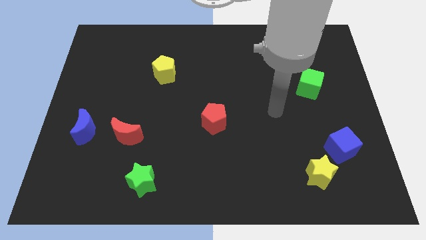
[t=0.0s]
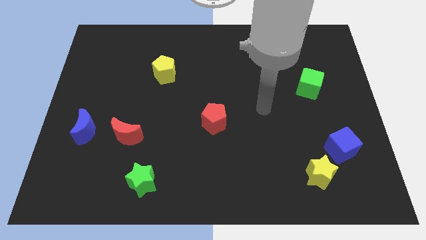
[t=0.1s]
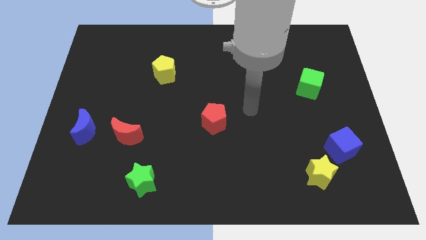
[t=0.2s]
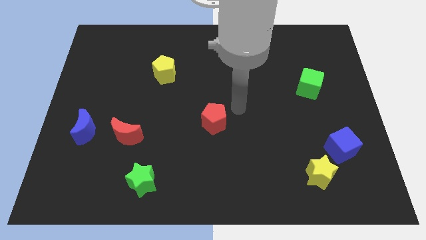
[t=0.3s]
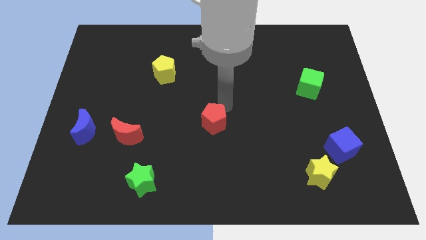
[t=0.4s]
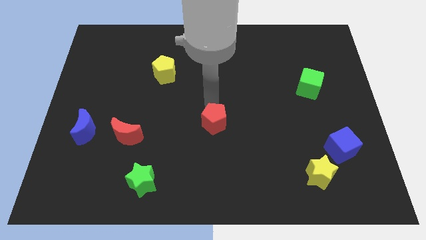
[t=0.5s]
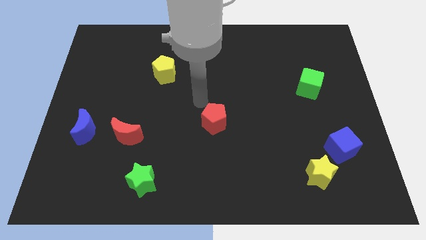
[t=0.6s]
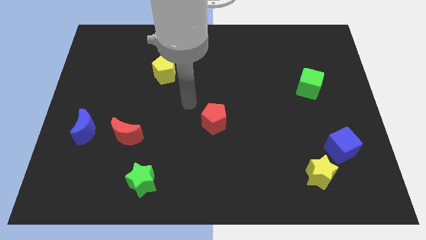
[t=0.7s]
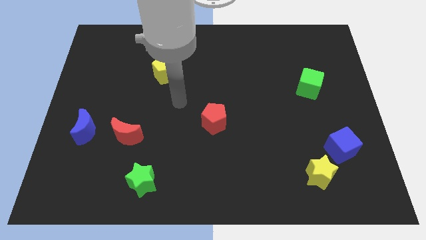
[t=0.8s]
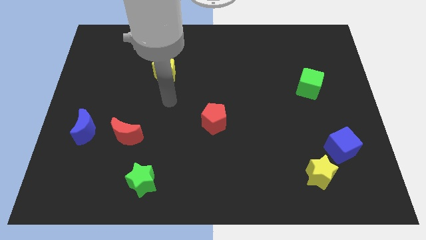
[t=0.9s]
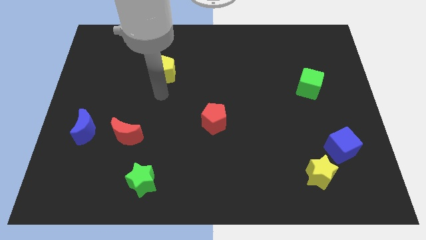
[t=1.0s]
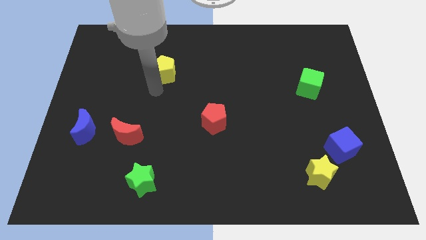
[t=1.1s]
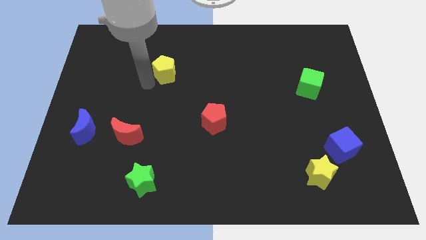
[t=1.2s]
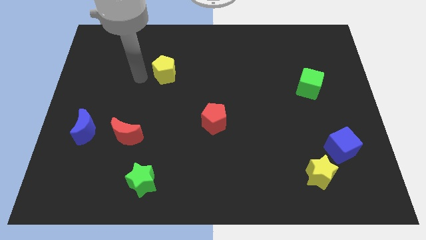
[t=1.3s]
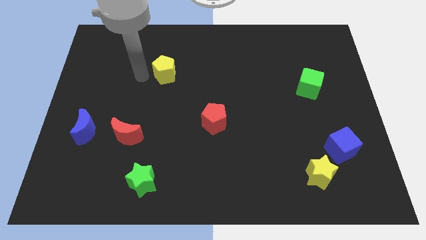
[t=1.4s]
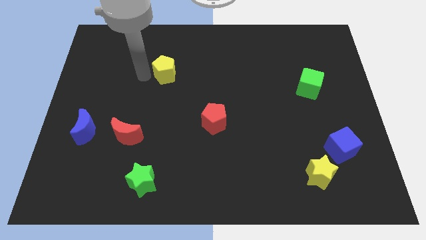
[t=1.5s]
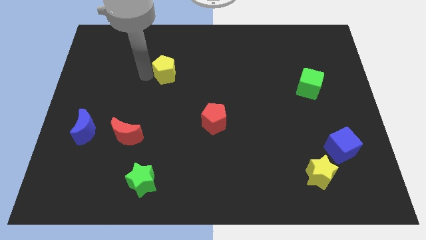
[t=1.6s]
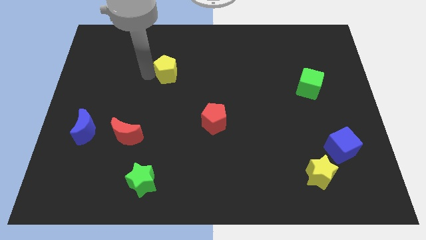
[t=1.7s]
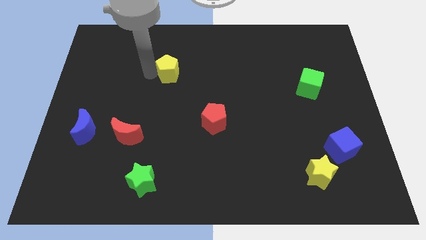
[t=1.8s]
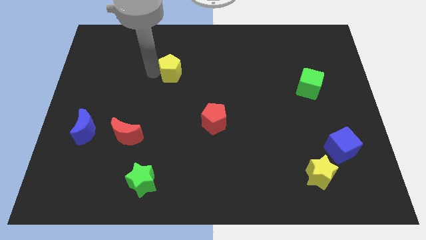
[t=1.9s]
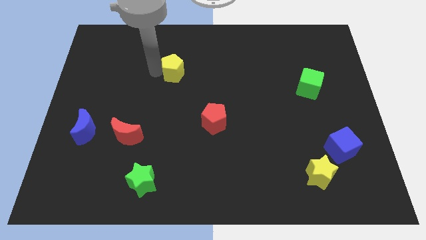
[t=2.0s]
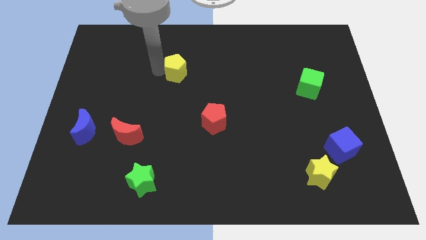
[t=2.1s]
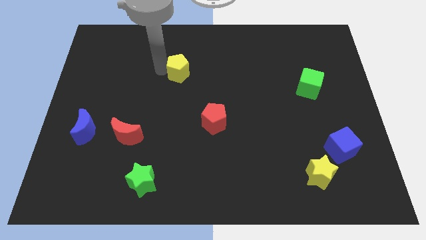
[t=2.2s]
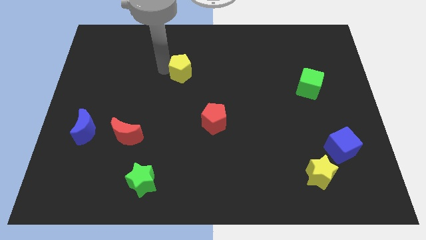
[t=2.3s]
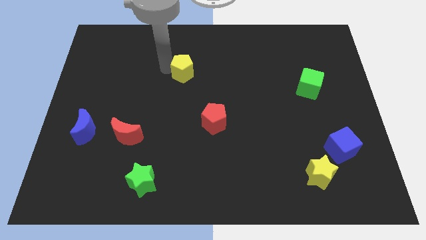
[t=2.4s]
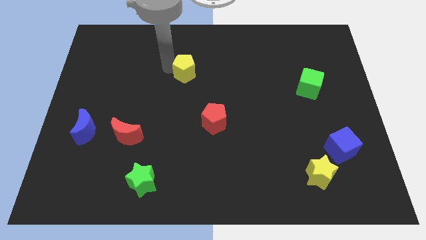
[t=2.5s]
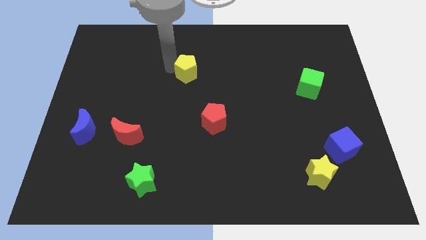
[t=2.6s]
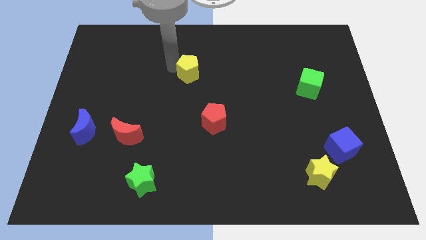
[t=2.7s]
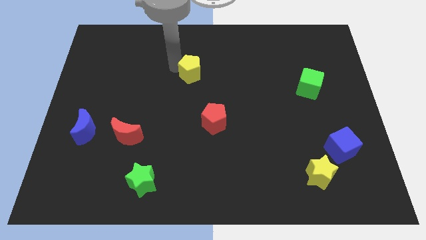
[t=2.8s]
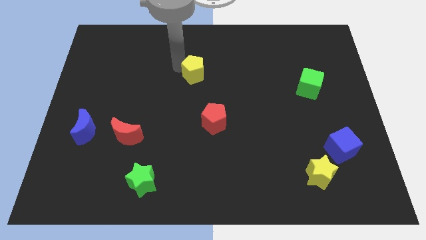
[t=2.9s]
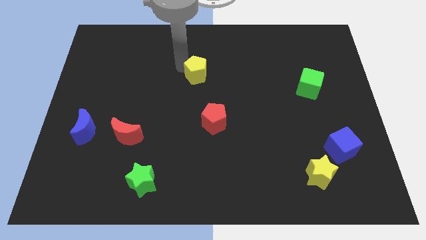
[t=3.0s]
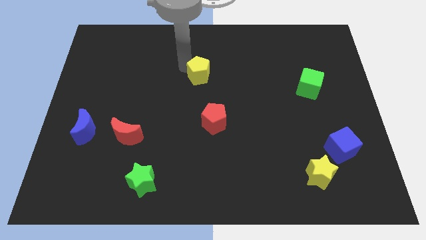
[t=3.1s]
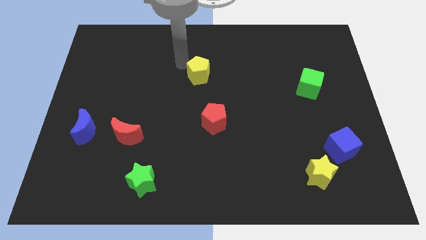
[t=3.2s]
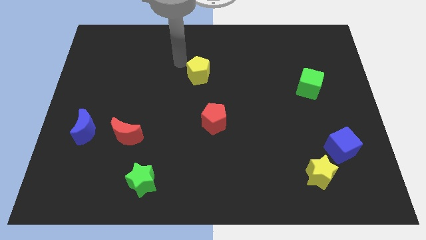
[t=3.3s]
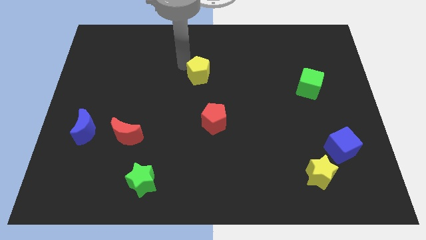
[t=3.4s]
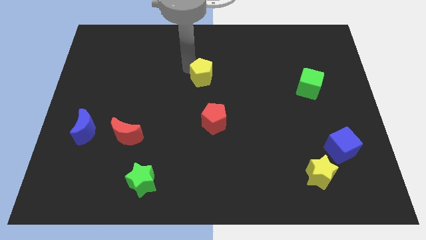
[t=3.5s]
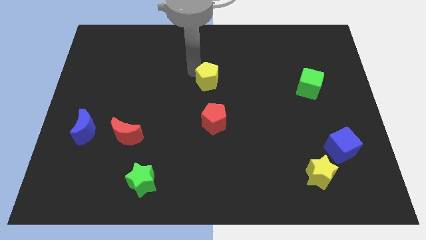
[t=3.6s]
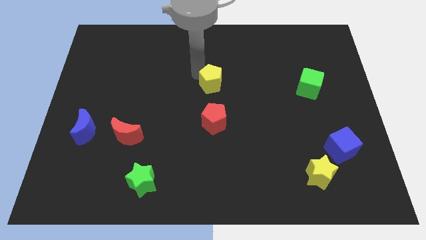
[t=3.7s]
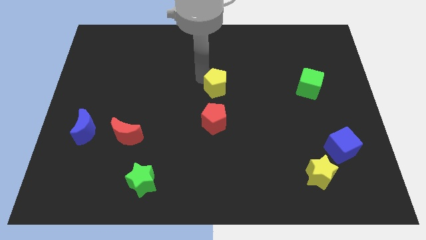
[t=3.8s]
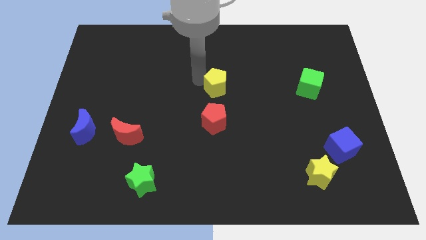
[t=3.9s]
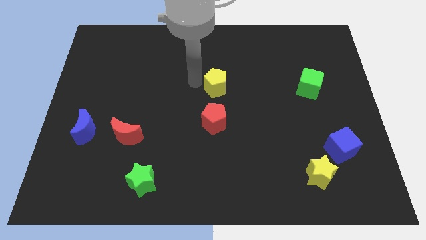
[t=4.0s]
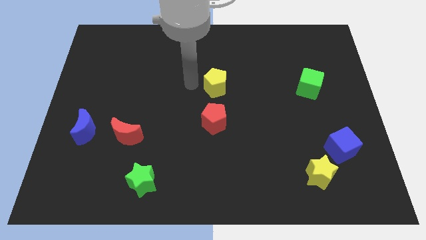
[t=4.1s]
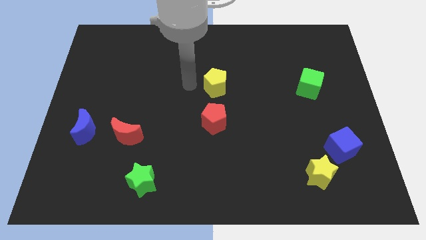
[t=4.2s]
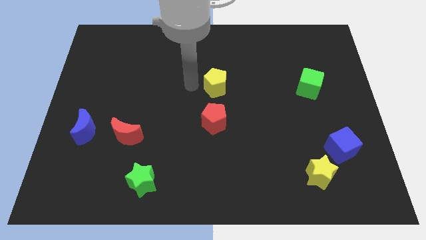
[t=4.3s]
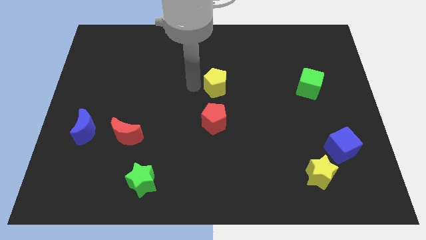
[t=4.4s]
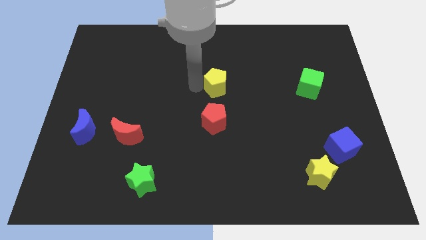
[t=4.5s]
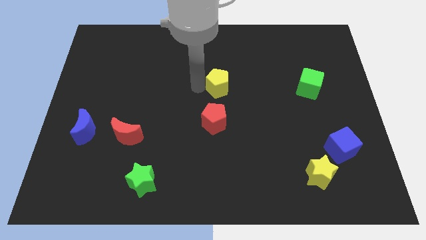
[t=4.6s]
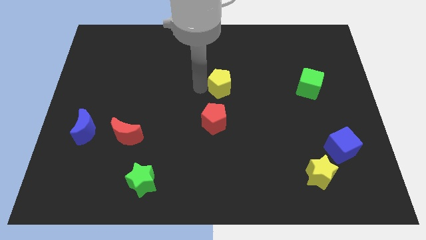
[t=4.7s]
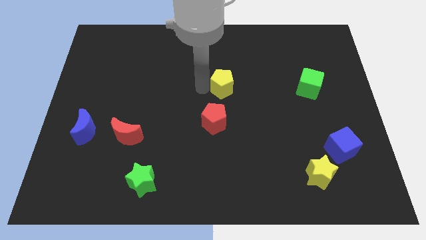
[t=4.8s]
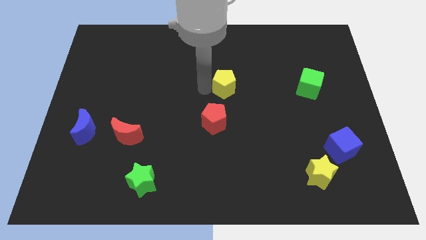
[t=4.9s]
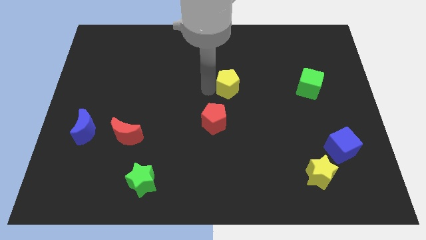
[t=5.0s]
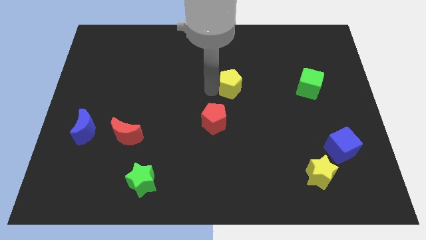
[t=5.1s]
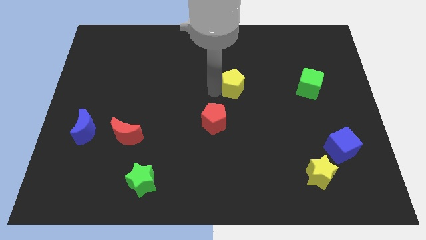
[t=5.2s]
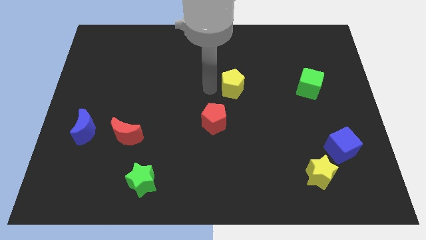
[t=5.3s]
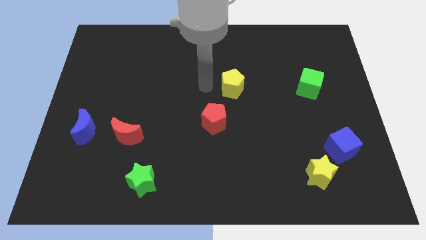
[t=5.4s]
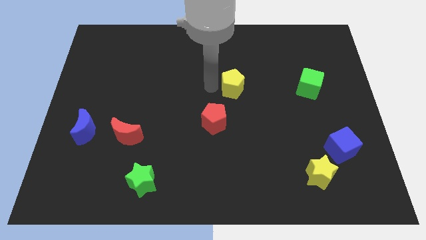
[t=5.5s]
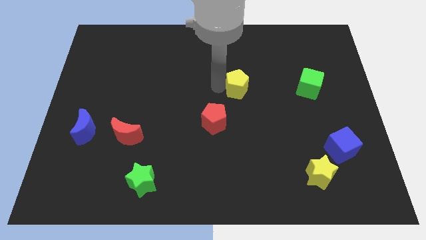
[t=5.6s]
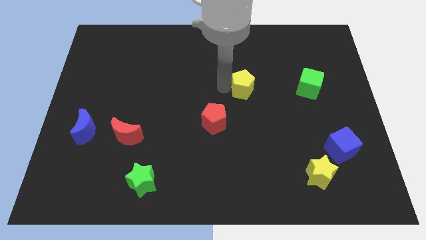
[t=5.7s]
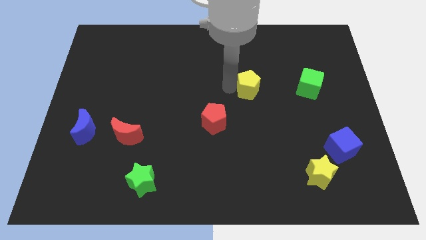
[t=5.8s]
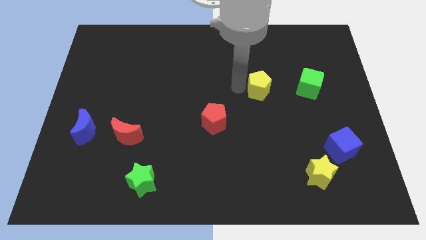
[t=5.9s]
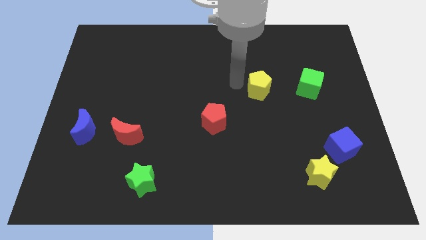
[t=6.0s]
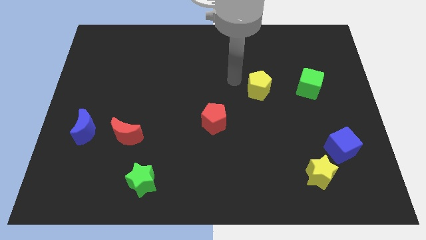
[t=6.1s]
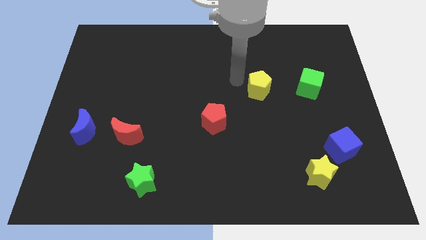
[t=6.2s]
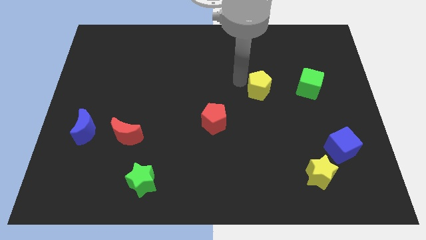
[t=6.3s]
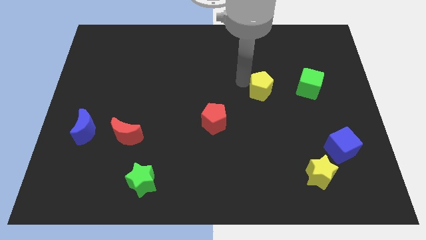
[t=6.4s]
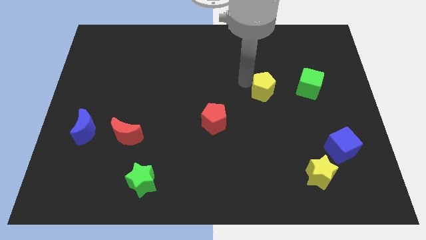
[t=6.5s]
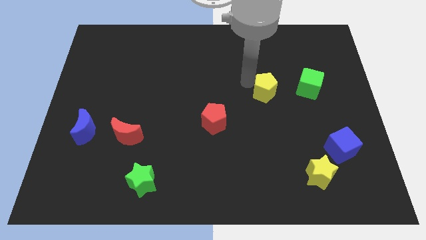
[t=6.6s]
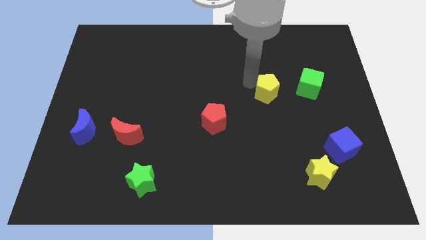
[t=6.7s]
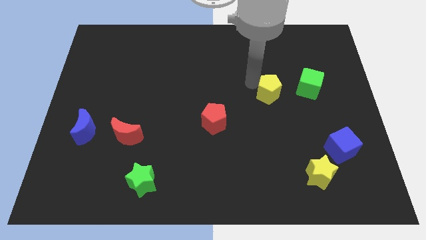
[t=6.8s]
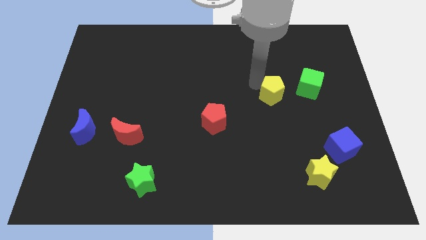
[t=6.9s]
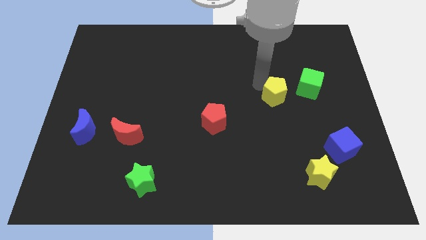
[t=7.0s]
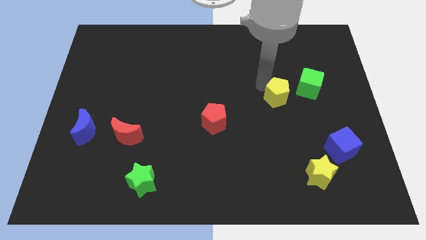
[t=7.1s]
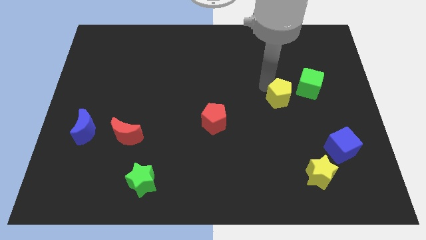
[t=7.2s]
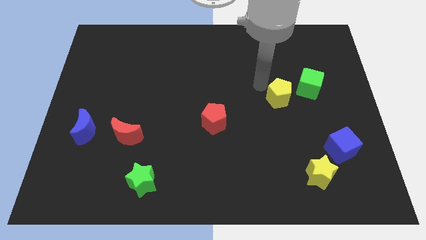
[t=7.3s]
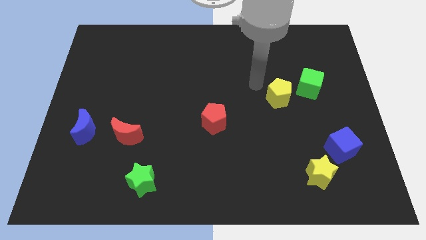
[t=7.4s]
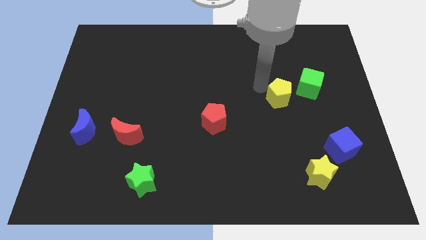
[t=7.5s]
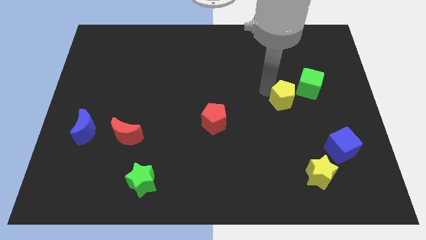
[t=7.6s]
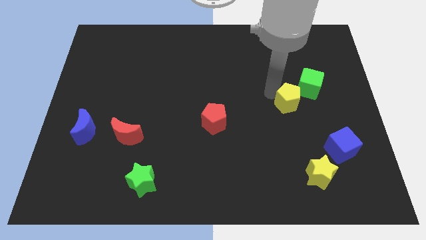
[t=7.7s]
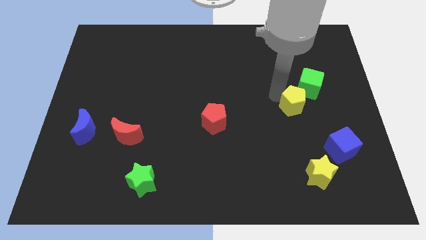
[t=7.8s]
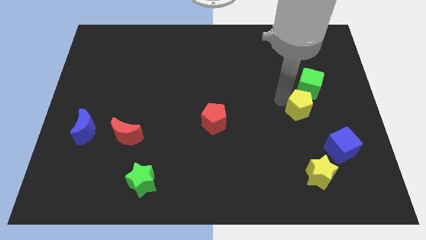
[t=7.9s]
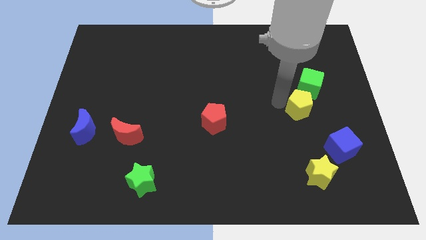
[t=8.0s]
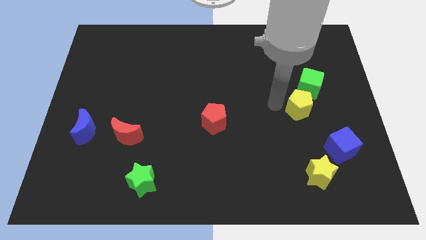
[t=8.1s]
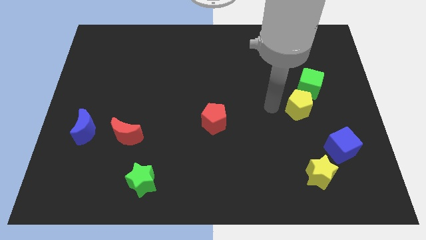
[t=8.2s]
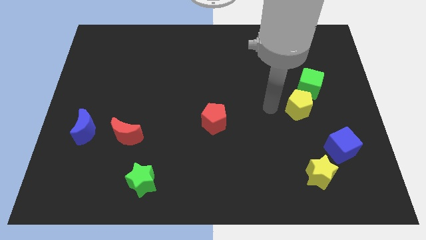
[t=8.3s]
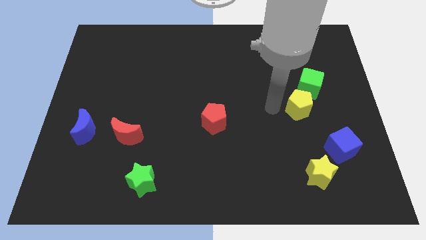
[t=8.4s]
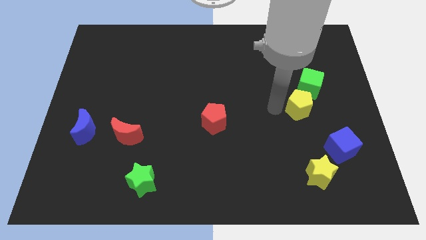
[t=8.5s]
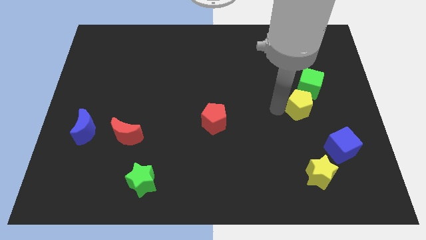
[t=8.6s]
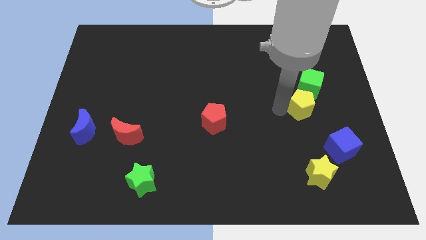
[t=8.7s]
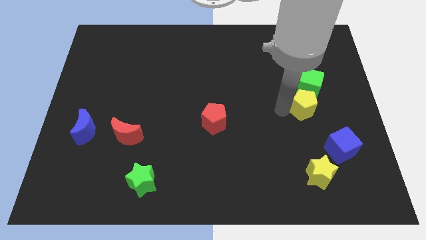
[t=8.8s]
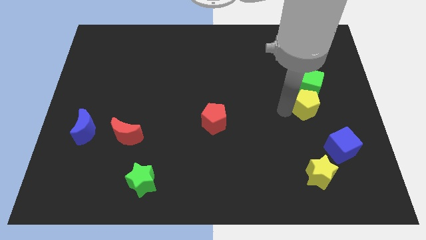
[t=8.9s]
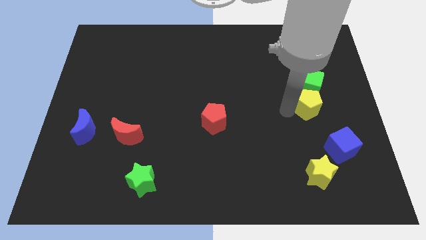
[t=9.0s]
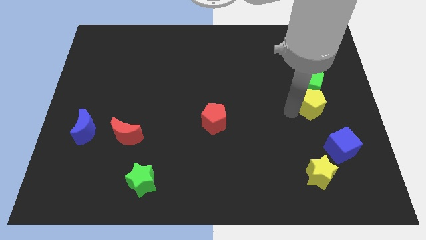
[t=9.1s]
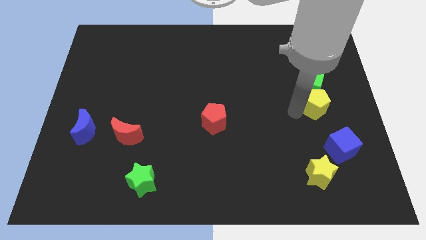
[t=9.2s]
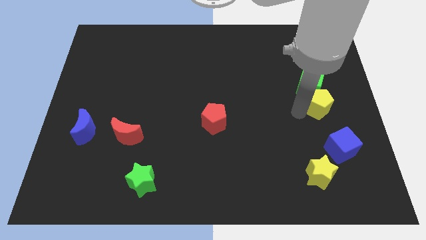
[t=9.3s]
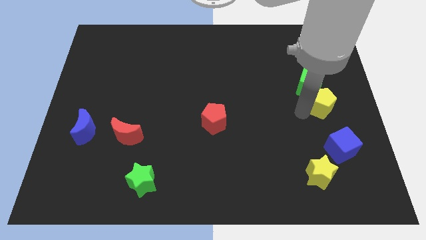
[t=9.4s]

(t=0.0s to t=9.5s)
move the yellow pentagon to the center right
